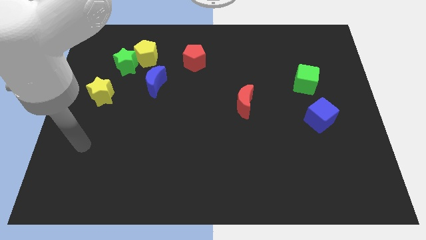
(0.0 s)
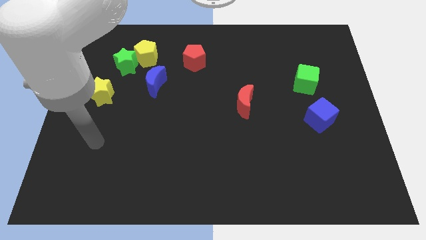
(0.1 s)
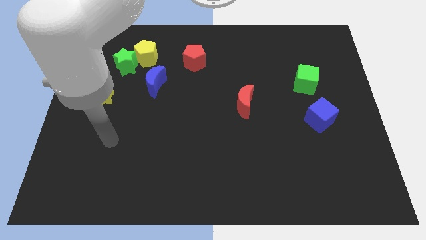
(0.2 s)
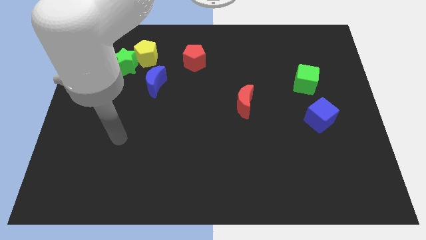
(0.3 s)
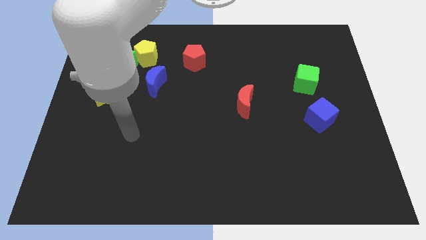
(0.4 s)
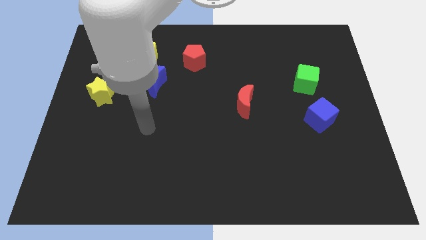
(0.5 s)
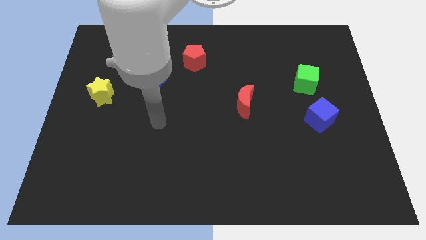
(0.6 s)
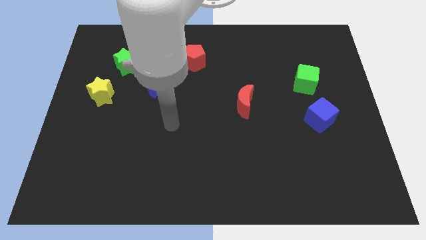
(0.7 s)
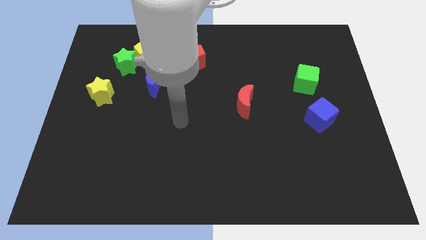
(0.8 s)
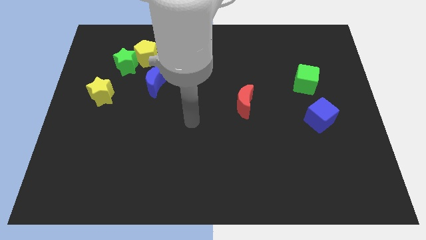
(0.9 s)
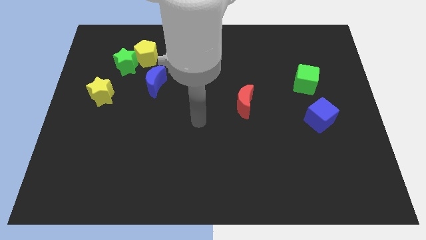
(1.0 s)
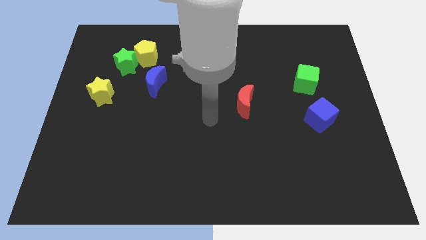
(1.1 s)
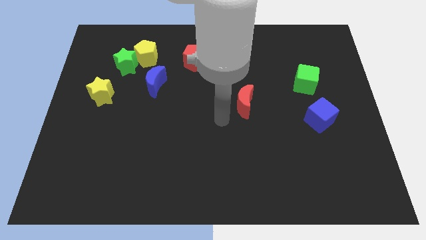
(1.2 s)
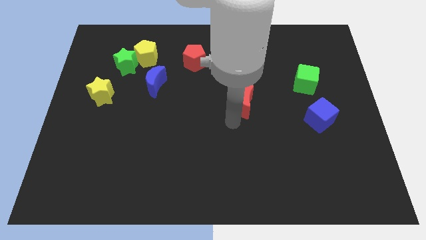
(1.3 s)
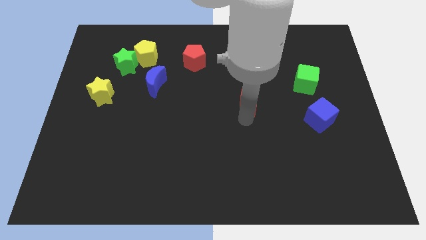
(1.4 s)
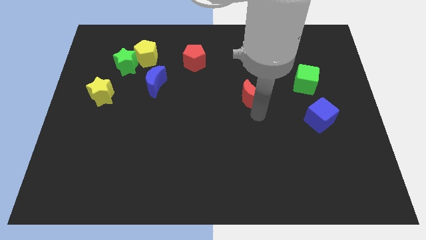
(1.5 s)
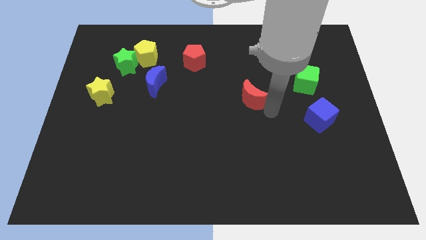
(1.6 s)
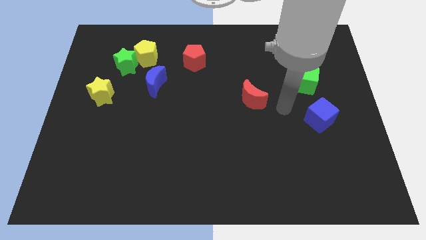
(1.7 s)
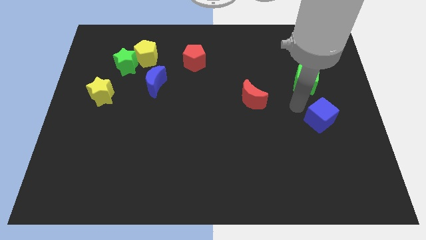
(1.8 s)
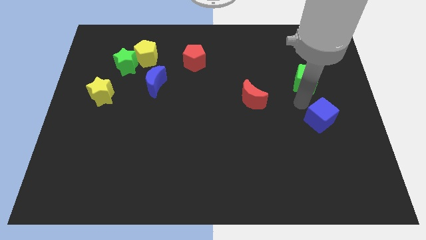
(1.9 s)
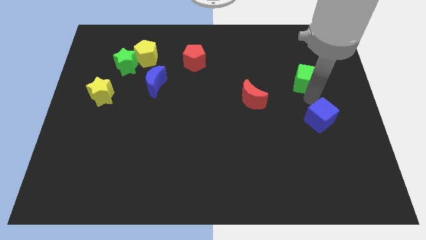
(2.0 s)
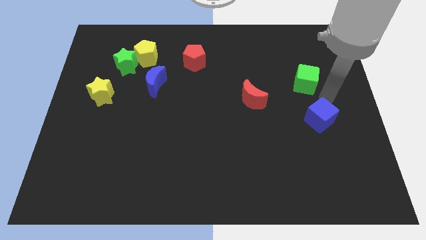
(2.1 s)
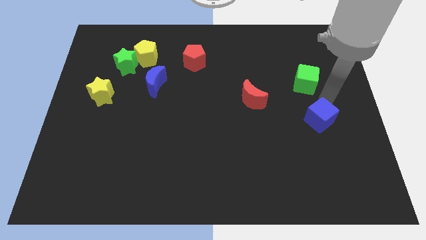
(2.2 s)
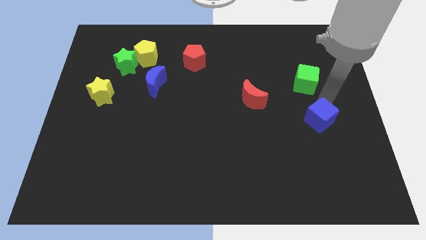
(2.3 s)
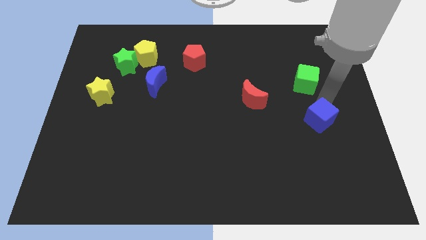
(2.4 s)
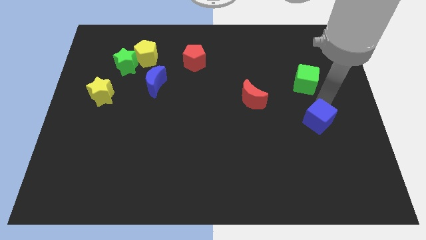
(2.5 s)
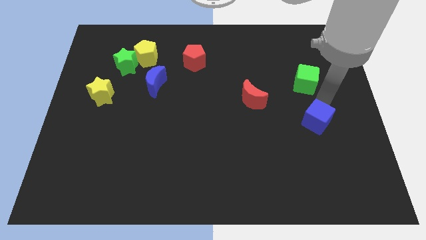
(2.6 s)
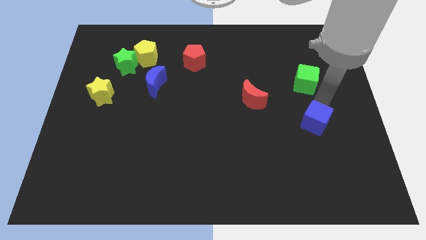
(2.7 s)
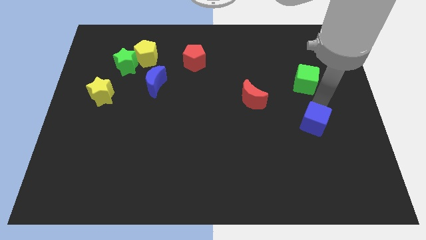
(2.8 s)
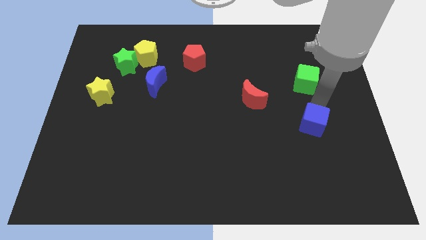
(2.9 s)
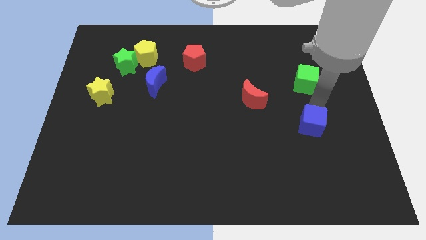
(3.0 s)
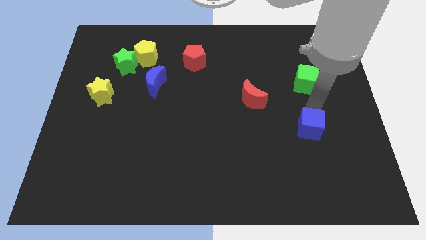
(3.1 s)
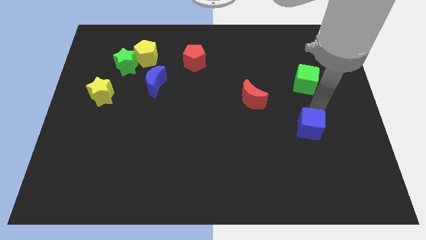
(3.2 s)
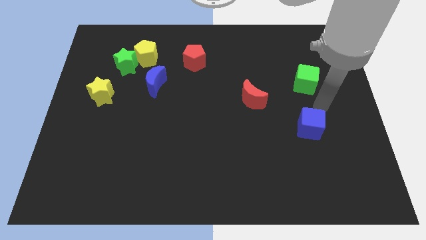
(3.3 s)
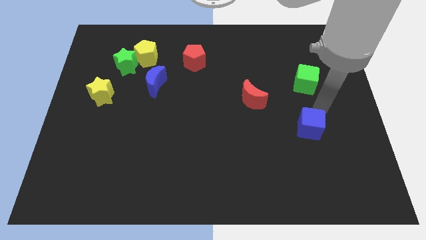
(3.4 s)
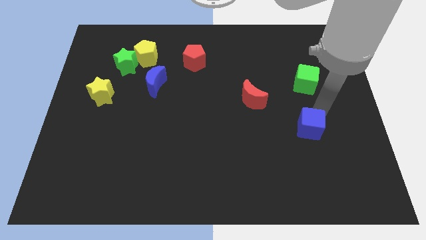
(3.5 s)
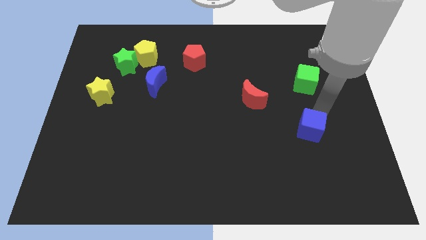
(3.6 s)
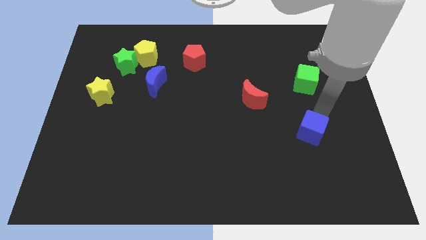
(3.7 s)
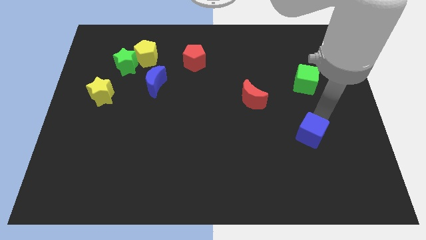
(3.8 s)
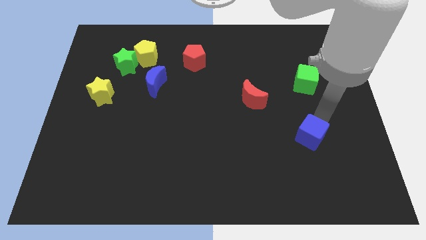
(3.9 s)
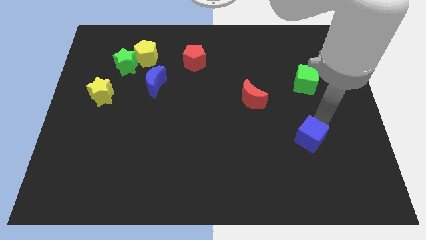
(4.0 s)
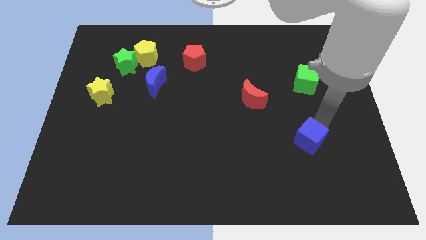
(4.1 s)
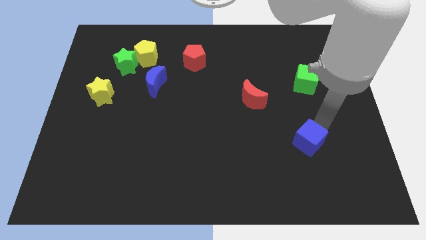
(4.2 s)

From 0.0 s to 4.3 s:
move the blue cube somewhat down and then to the left

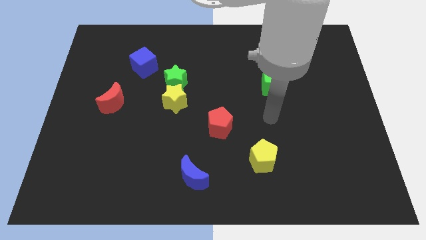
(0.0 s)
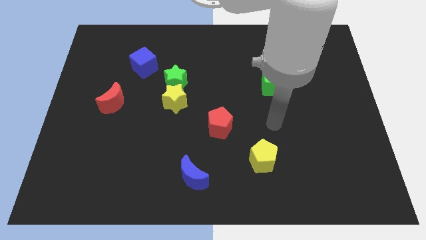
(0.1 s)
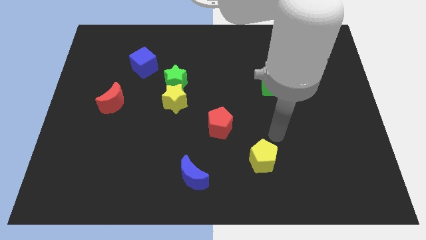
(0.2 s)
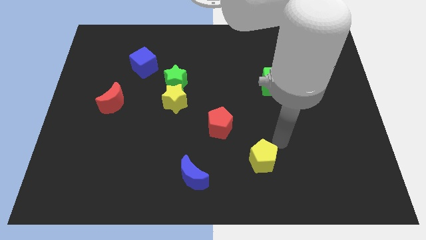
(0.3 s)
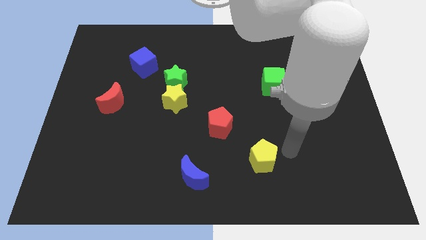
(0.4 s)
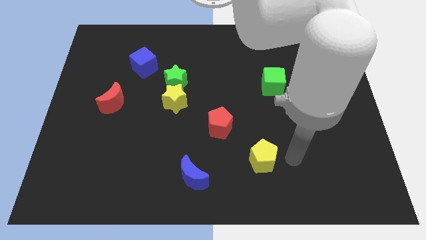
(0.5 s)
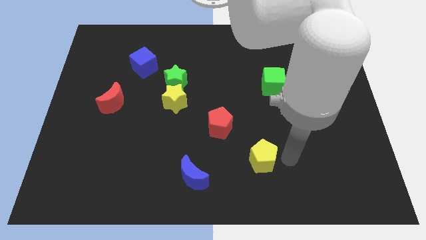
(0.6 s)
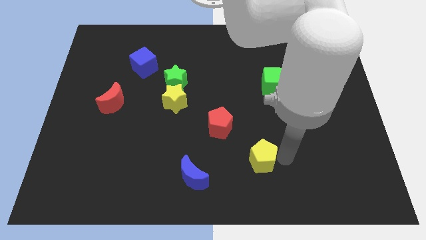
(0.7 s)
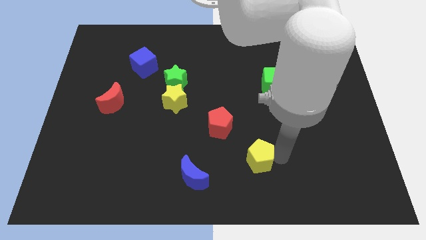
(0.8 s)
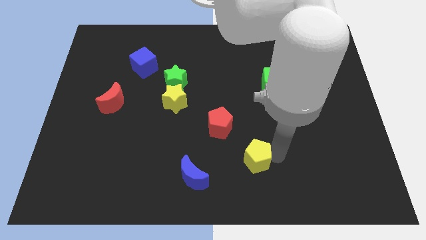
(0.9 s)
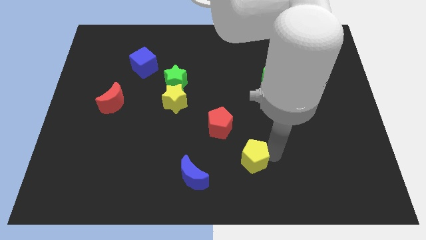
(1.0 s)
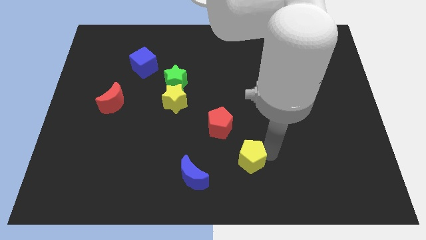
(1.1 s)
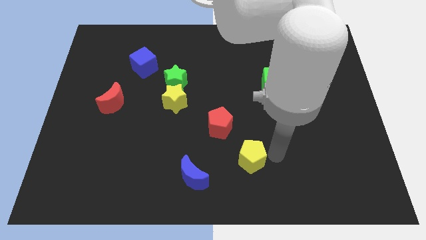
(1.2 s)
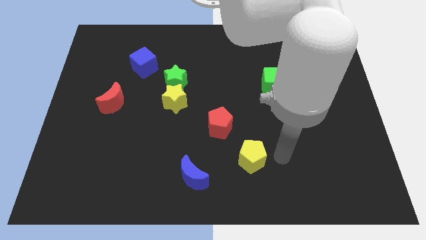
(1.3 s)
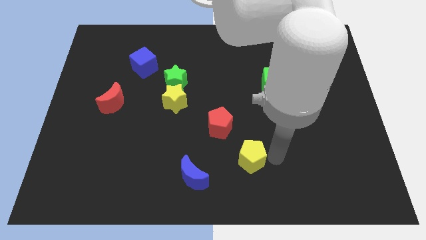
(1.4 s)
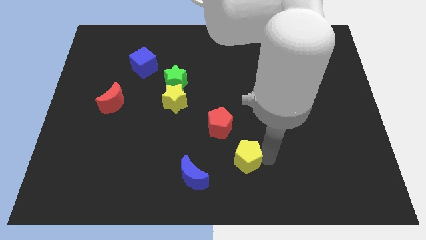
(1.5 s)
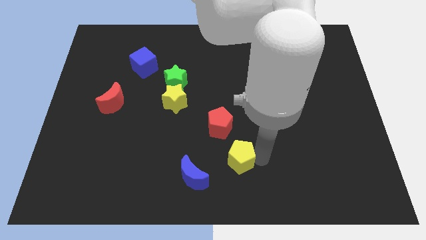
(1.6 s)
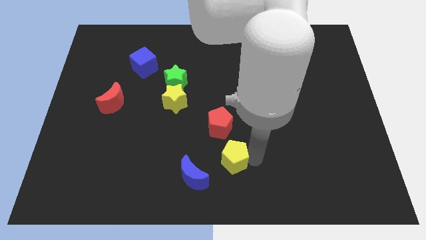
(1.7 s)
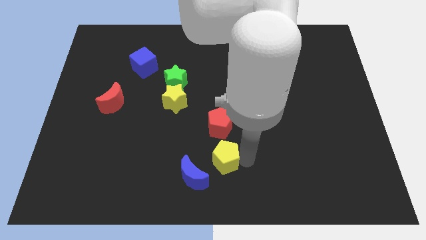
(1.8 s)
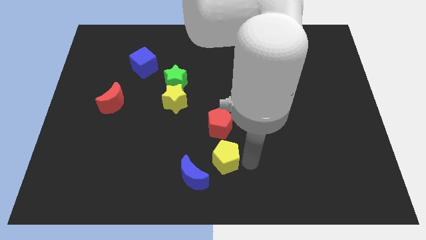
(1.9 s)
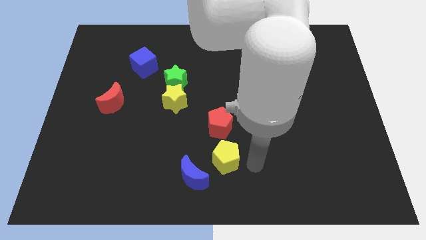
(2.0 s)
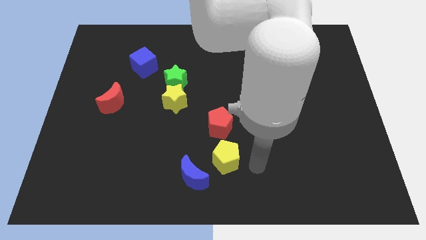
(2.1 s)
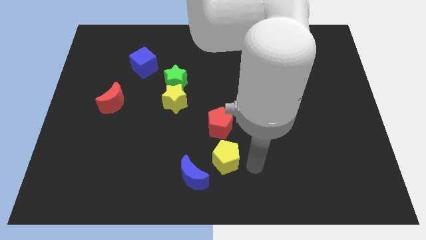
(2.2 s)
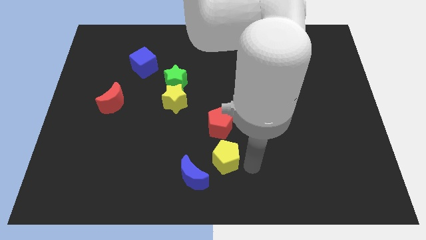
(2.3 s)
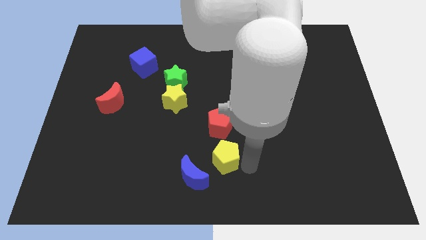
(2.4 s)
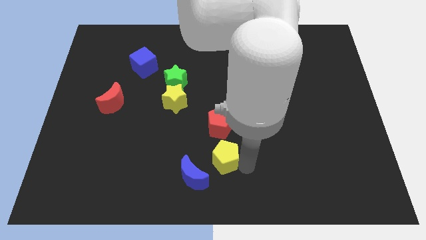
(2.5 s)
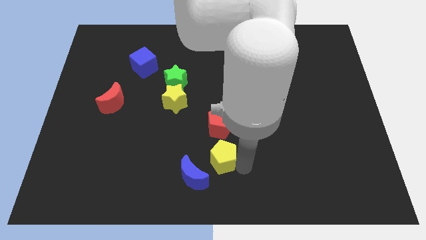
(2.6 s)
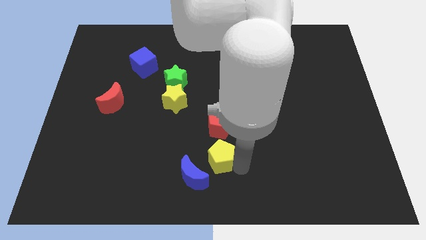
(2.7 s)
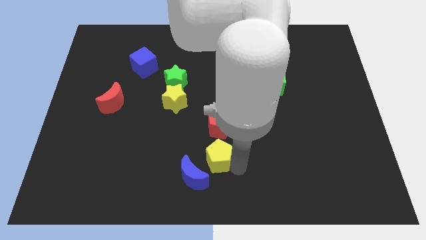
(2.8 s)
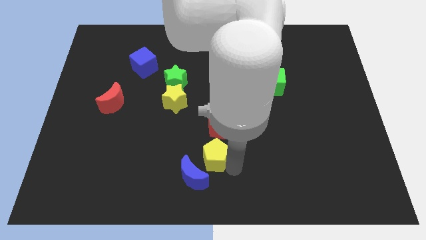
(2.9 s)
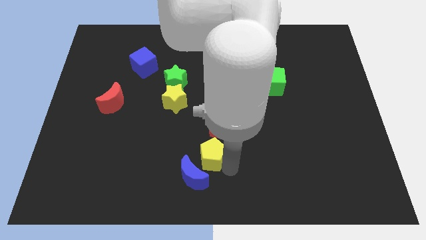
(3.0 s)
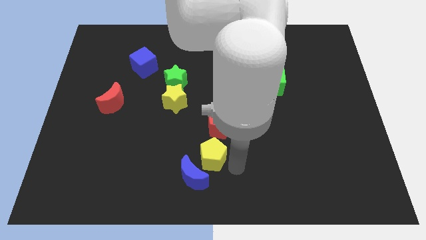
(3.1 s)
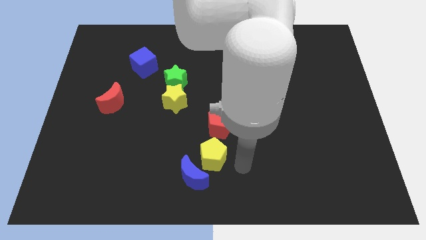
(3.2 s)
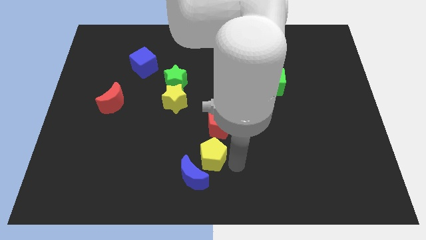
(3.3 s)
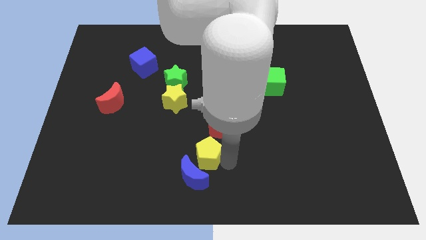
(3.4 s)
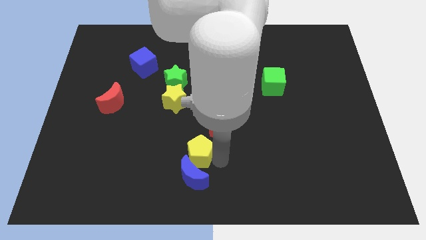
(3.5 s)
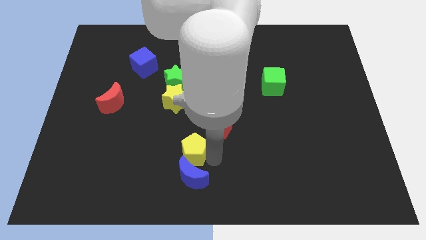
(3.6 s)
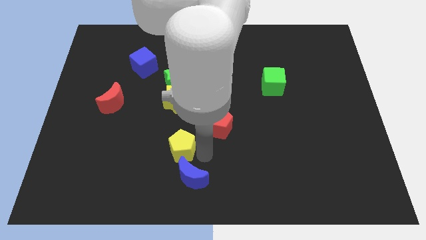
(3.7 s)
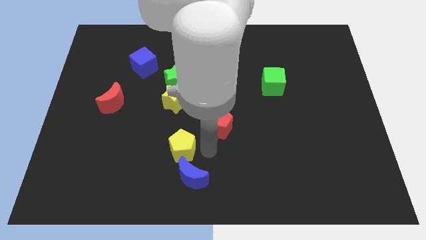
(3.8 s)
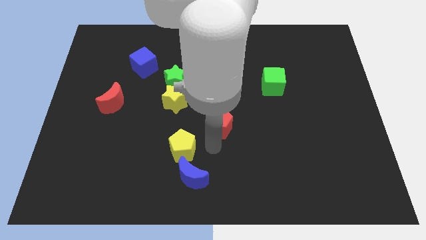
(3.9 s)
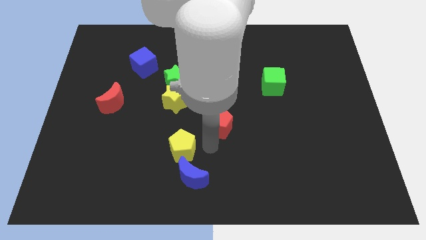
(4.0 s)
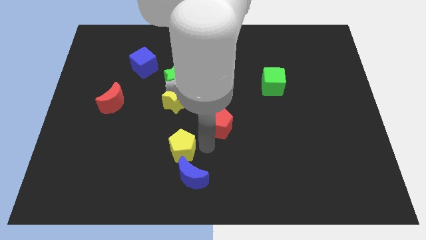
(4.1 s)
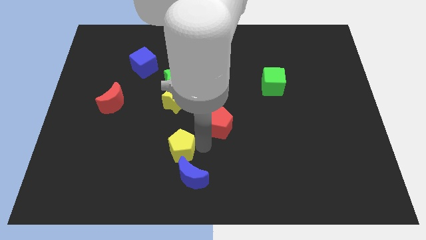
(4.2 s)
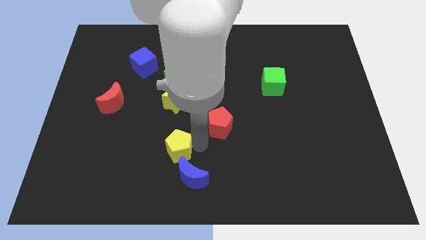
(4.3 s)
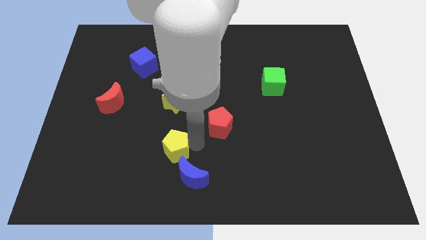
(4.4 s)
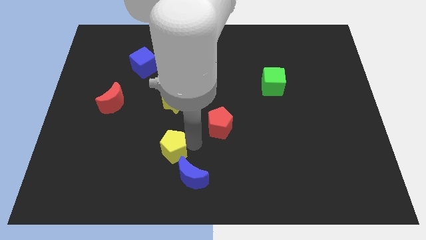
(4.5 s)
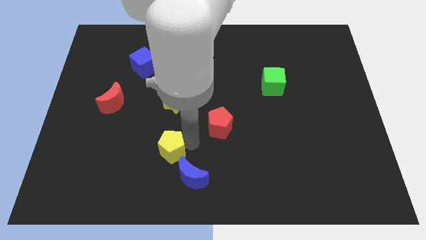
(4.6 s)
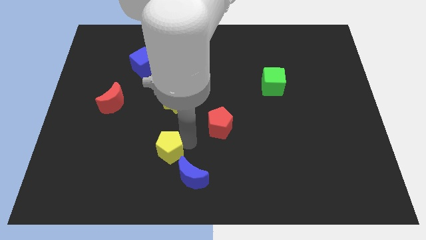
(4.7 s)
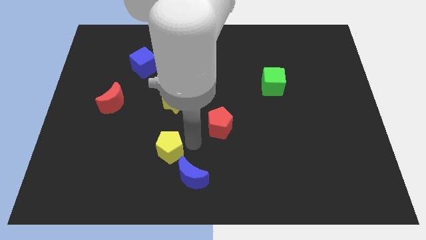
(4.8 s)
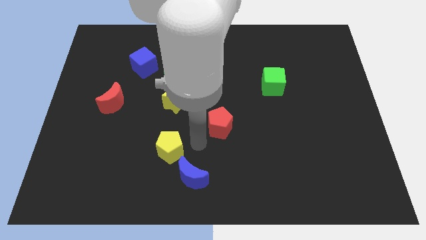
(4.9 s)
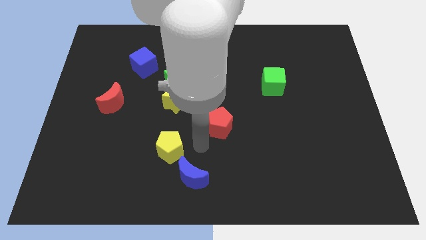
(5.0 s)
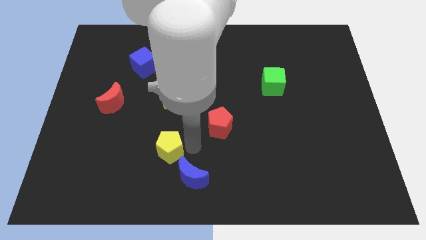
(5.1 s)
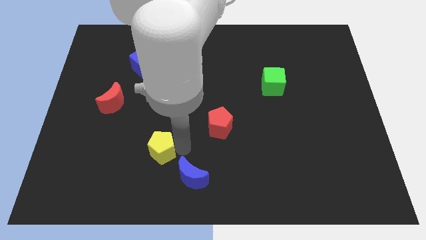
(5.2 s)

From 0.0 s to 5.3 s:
slide the yellow pentagon left
